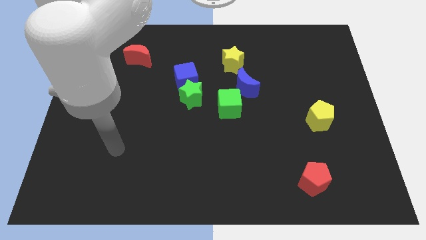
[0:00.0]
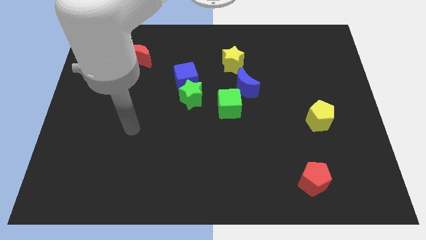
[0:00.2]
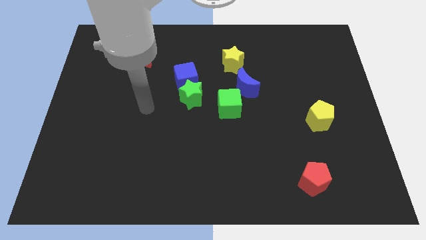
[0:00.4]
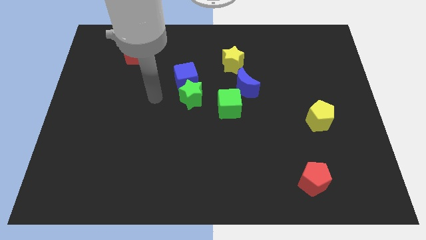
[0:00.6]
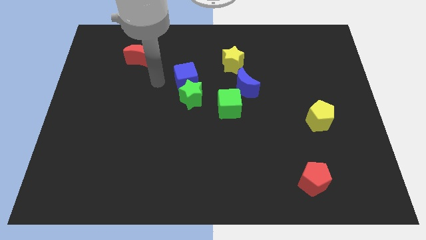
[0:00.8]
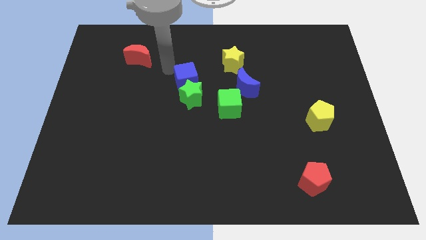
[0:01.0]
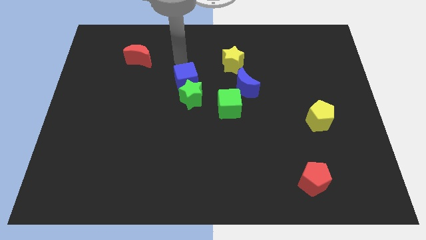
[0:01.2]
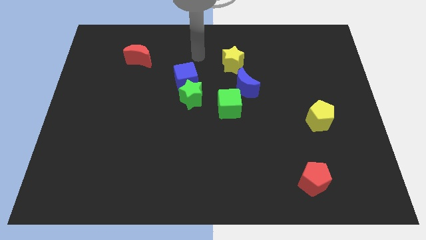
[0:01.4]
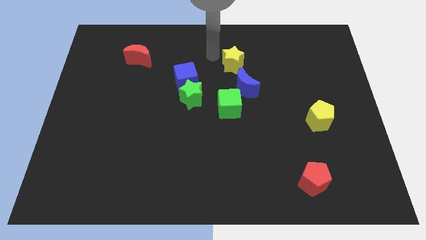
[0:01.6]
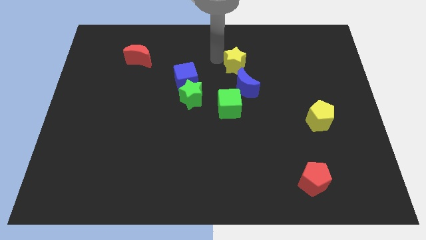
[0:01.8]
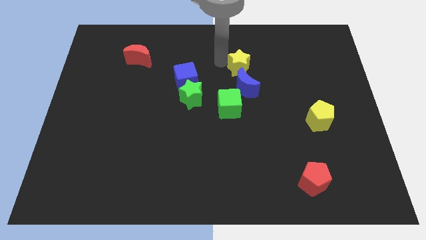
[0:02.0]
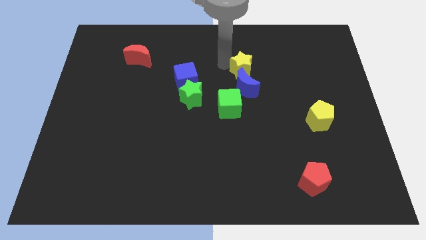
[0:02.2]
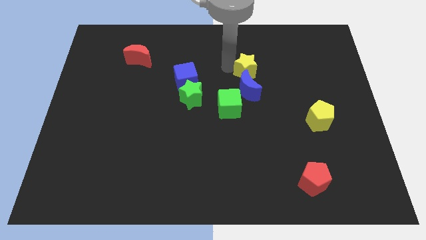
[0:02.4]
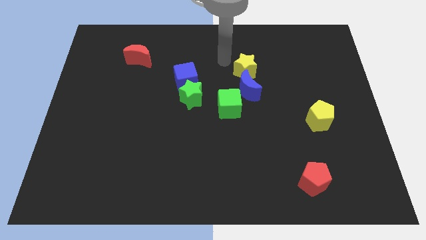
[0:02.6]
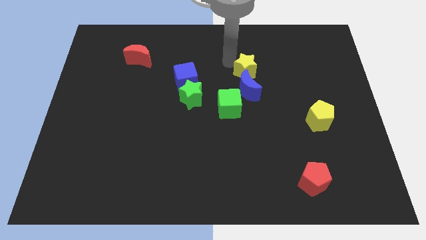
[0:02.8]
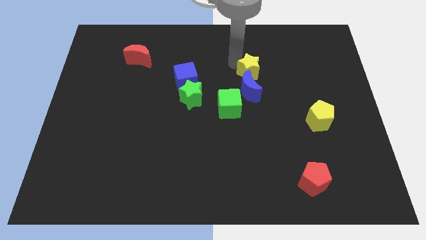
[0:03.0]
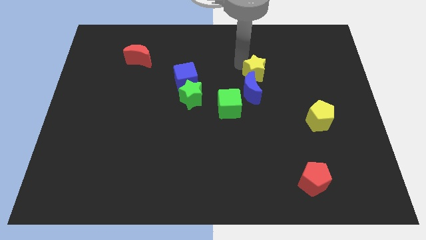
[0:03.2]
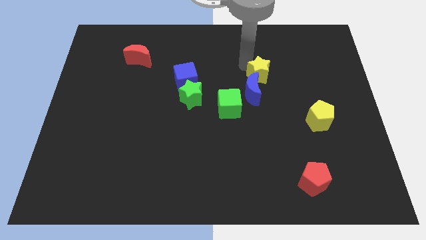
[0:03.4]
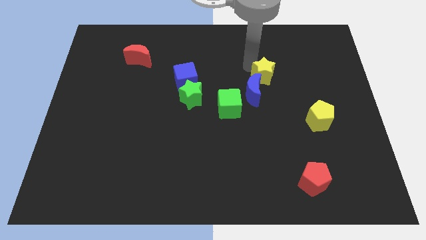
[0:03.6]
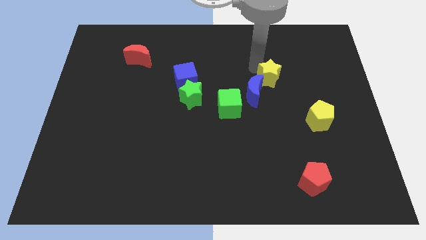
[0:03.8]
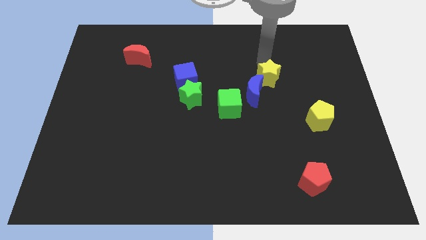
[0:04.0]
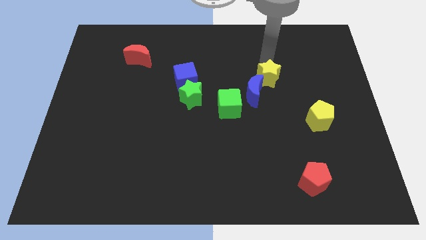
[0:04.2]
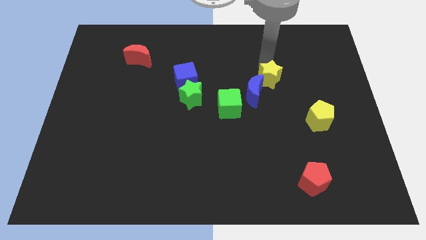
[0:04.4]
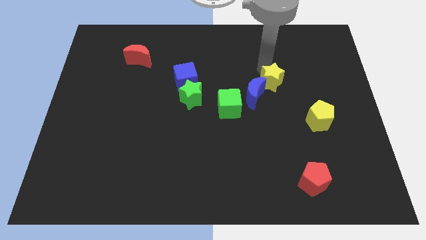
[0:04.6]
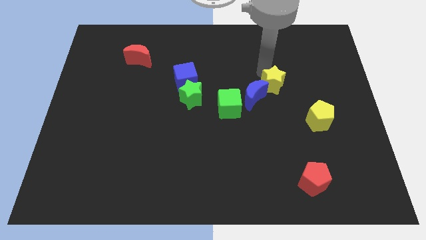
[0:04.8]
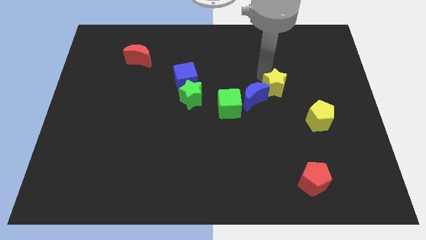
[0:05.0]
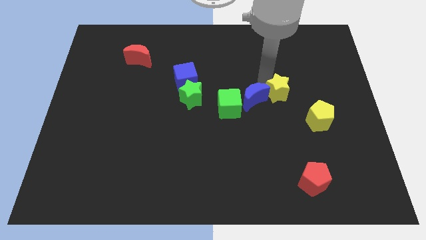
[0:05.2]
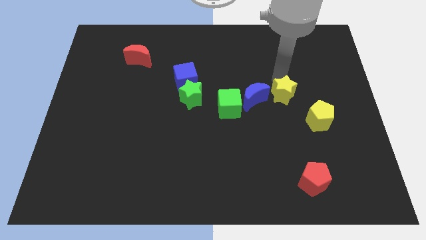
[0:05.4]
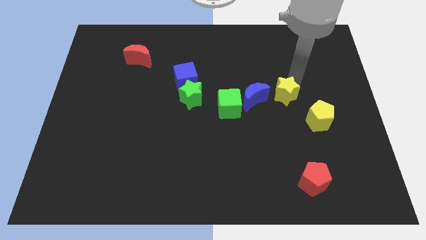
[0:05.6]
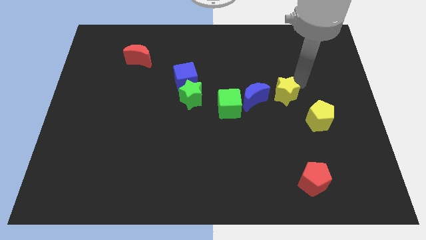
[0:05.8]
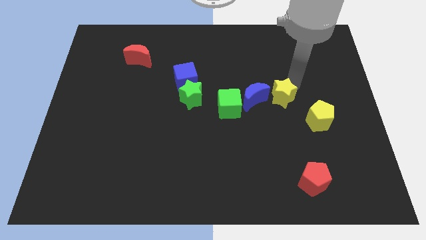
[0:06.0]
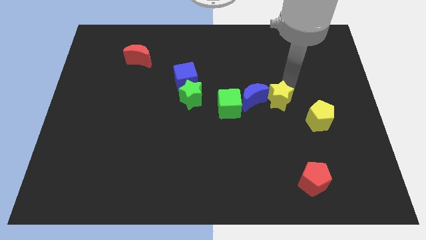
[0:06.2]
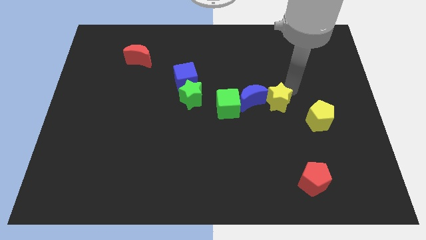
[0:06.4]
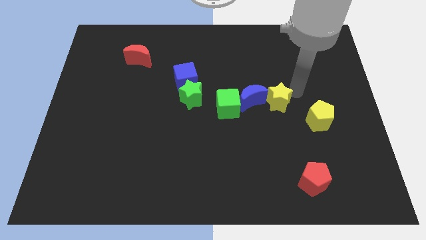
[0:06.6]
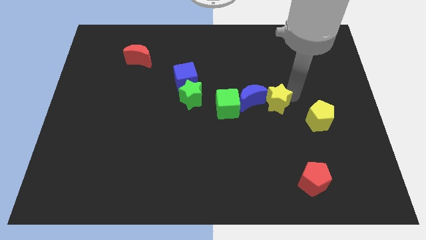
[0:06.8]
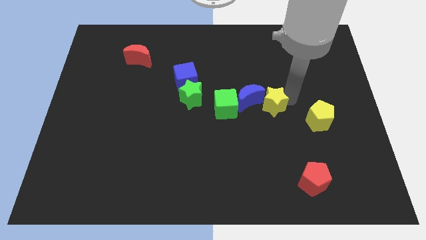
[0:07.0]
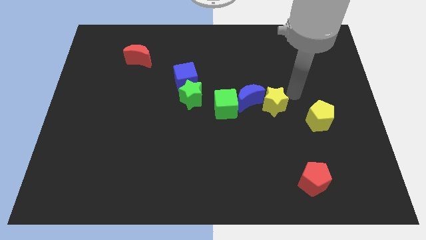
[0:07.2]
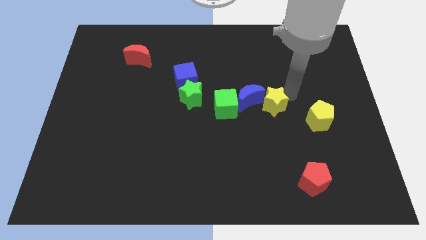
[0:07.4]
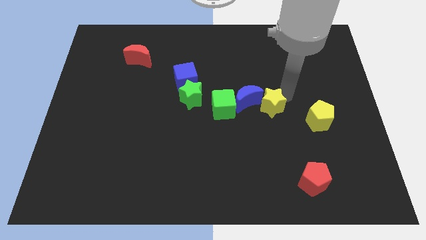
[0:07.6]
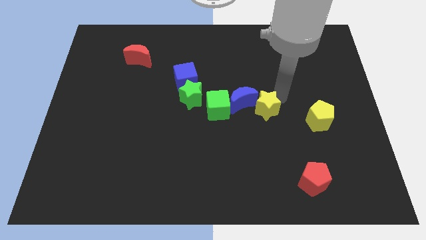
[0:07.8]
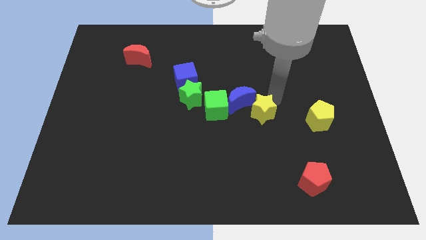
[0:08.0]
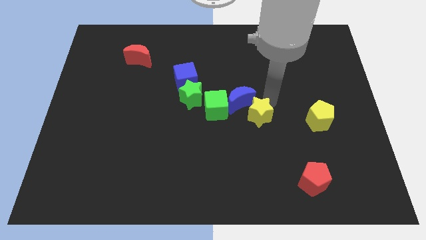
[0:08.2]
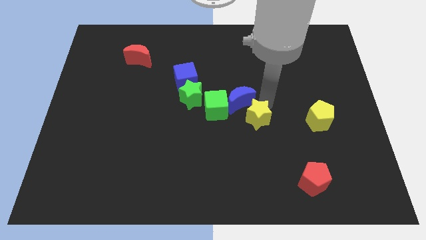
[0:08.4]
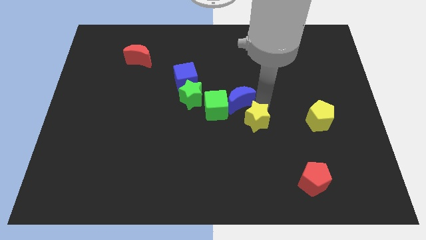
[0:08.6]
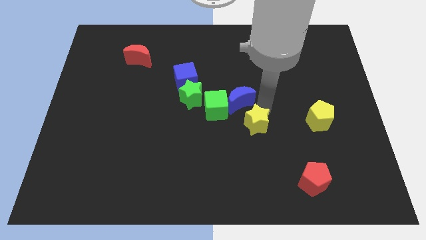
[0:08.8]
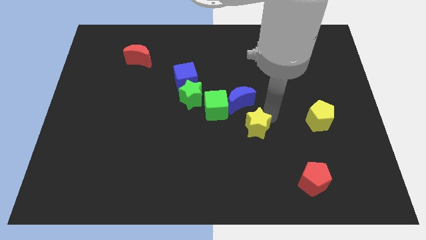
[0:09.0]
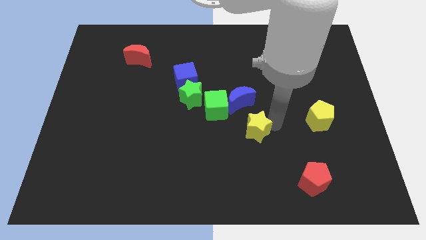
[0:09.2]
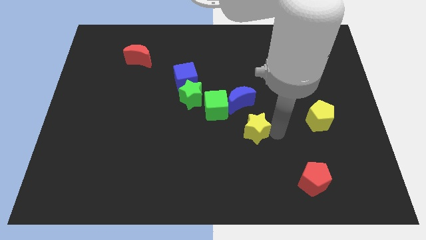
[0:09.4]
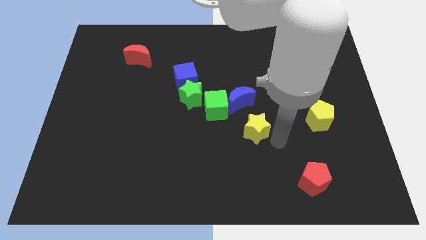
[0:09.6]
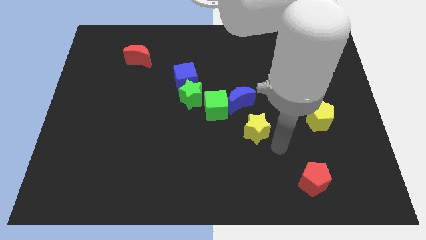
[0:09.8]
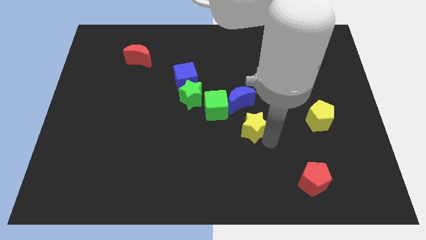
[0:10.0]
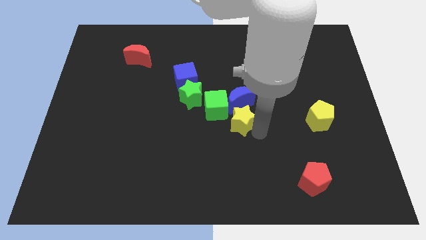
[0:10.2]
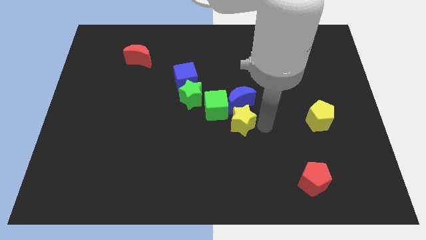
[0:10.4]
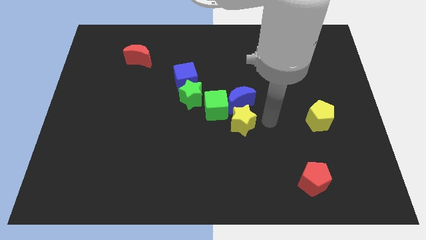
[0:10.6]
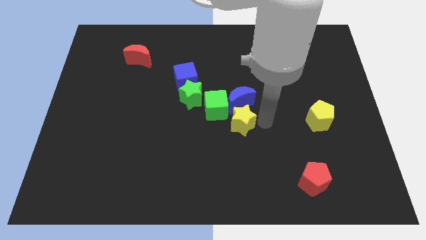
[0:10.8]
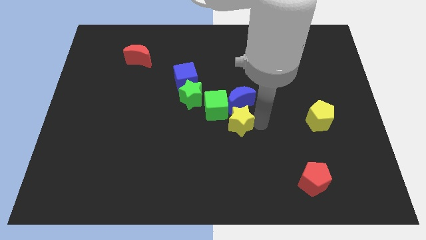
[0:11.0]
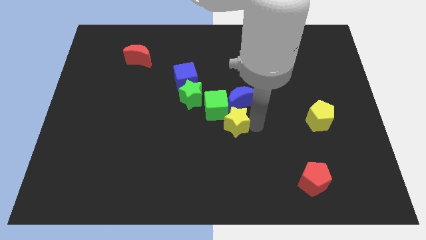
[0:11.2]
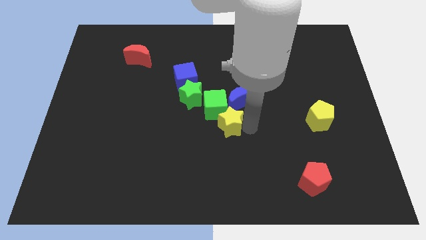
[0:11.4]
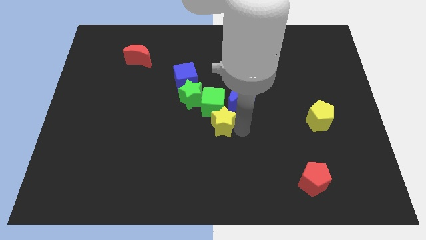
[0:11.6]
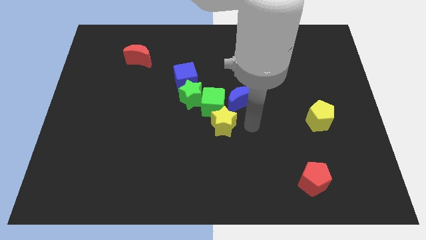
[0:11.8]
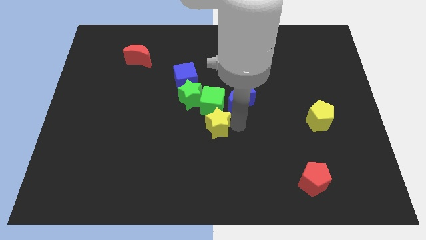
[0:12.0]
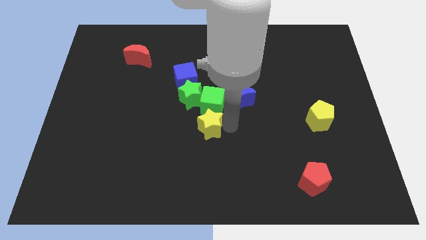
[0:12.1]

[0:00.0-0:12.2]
move the yellow star diagonally down and to the left of the green cube

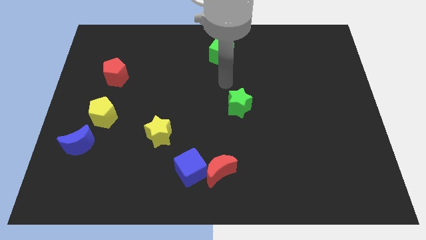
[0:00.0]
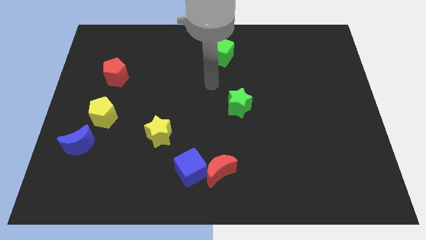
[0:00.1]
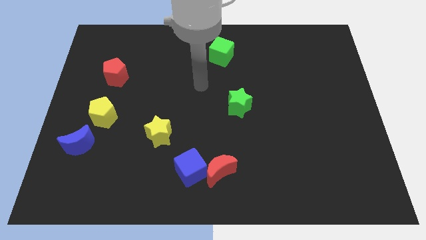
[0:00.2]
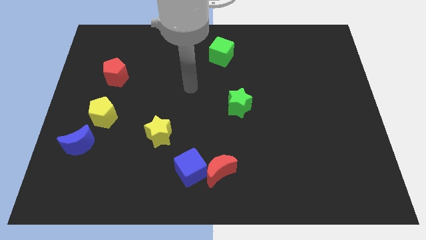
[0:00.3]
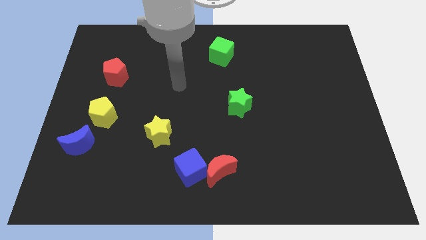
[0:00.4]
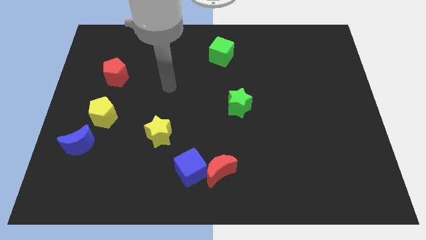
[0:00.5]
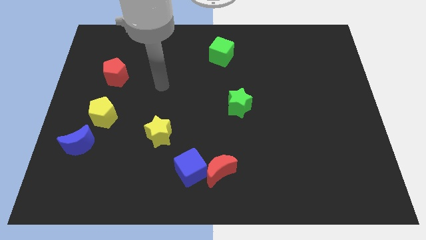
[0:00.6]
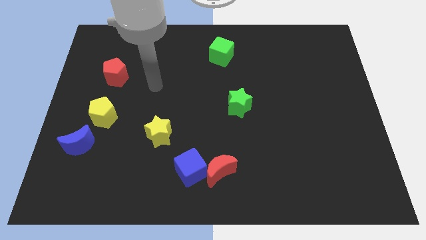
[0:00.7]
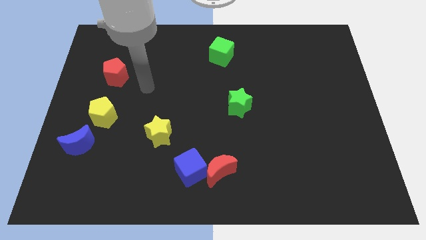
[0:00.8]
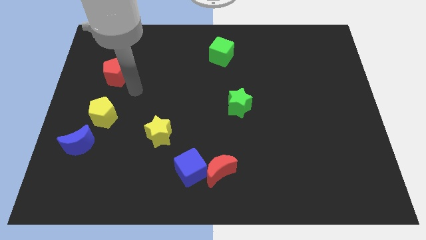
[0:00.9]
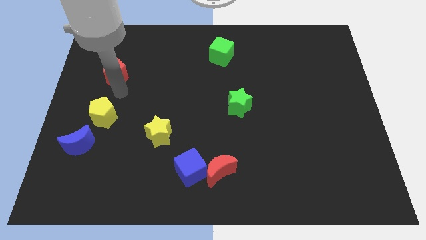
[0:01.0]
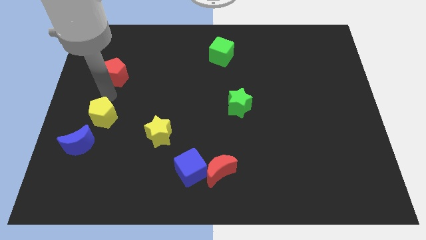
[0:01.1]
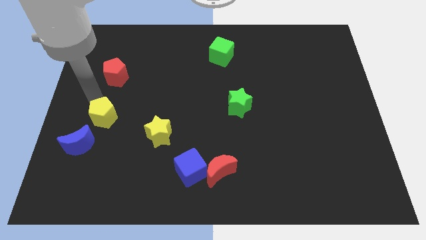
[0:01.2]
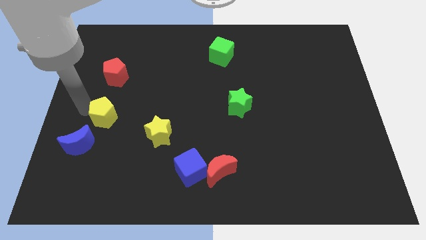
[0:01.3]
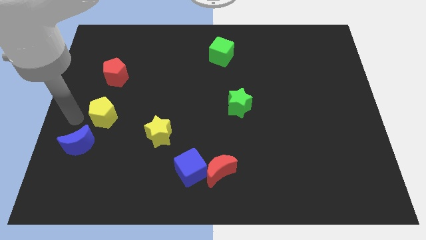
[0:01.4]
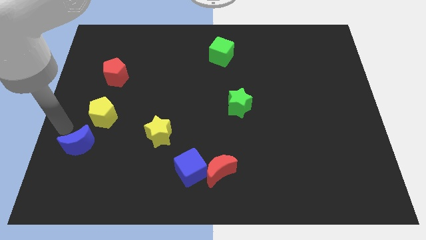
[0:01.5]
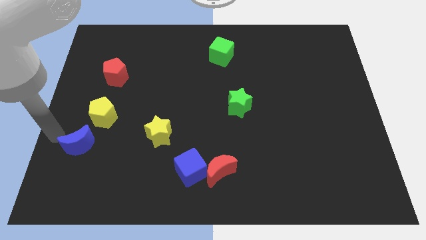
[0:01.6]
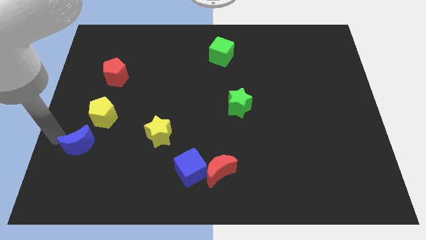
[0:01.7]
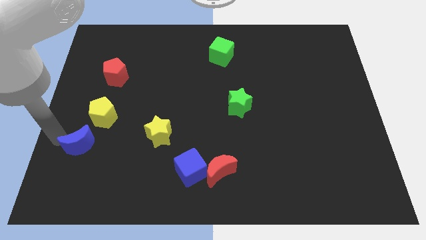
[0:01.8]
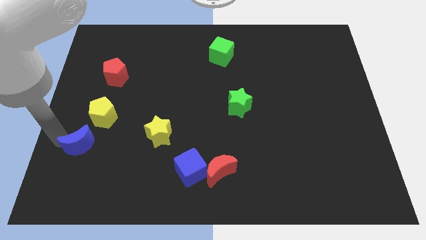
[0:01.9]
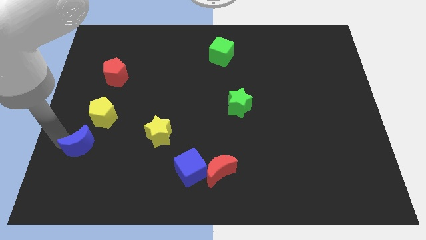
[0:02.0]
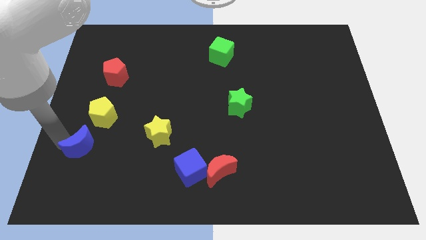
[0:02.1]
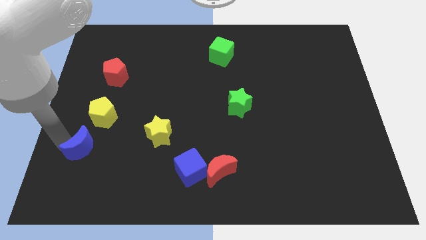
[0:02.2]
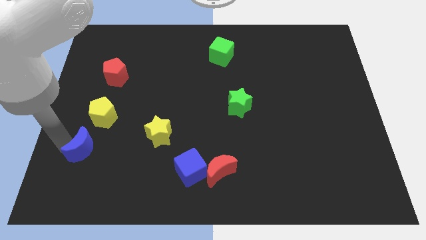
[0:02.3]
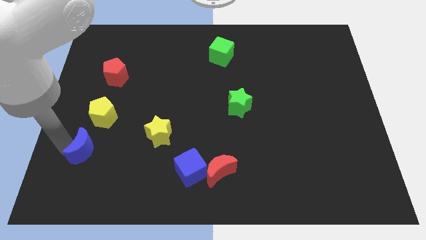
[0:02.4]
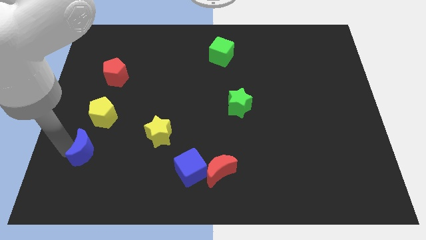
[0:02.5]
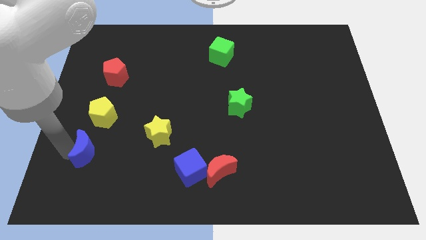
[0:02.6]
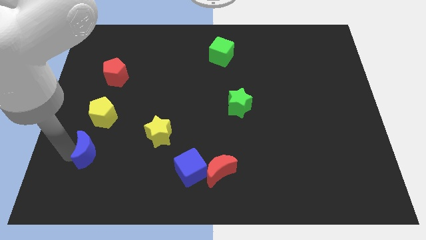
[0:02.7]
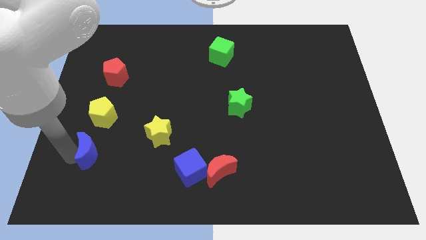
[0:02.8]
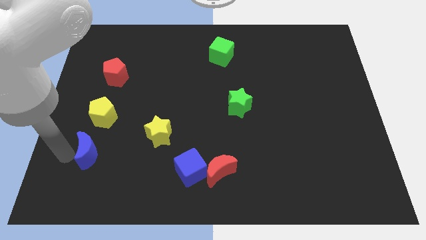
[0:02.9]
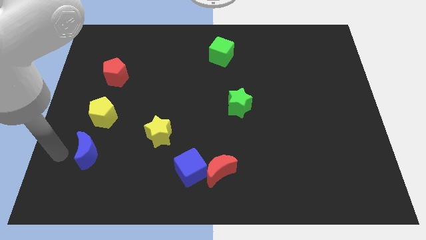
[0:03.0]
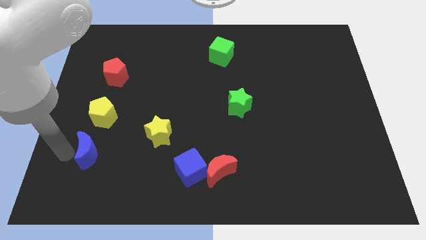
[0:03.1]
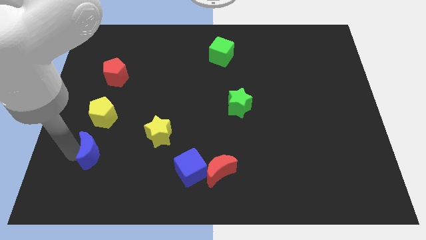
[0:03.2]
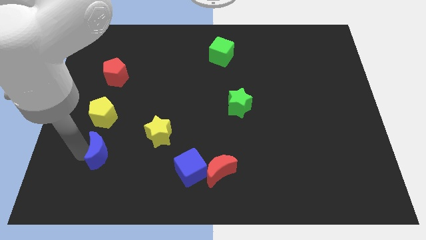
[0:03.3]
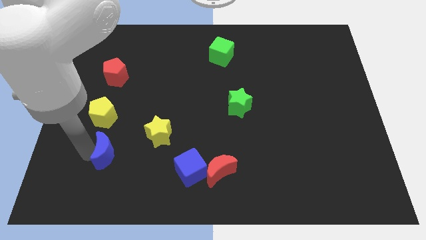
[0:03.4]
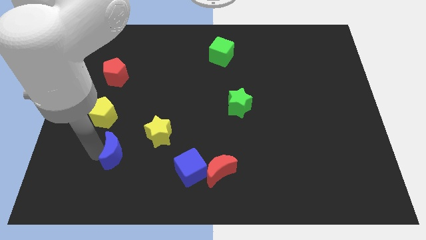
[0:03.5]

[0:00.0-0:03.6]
push the blue moon to the bottom left side of the yellow star
